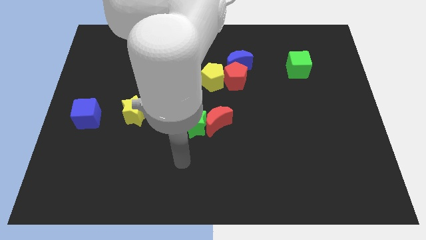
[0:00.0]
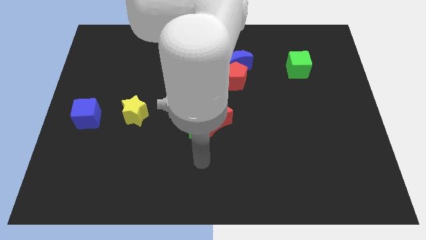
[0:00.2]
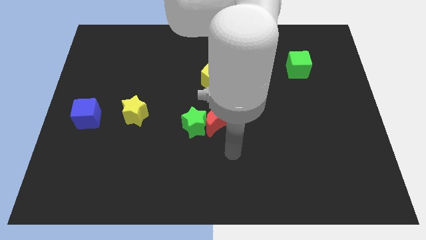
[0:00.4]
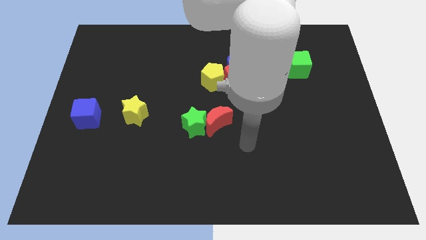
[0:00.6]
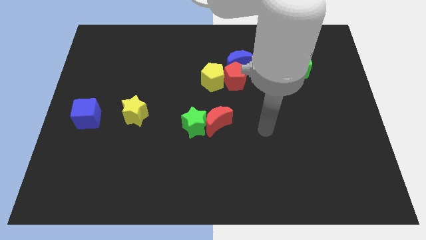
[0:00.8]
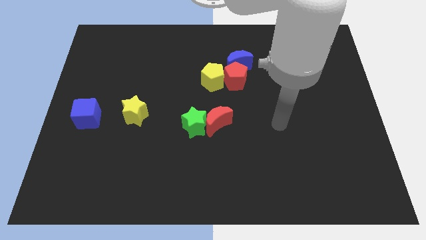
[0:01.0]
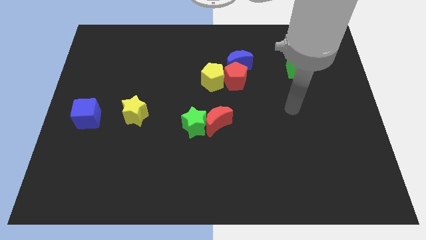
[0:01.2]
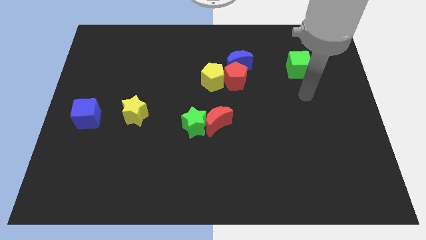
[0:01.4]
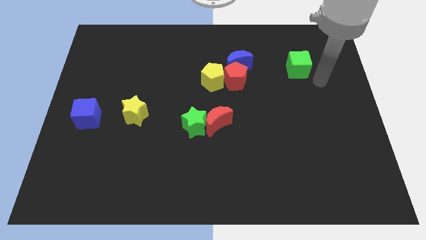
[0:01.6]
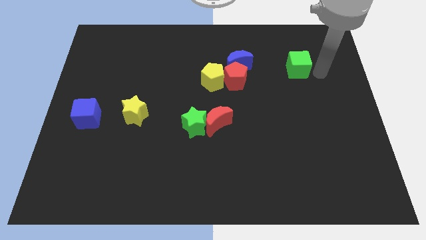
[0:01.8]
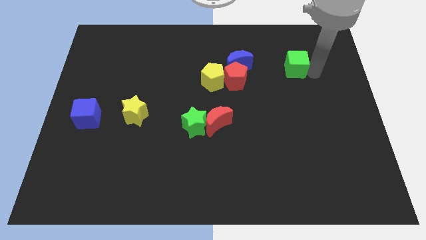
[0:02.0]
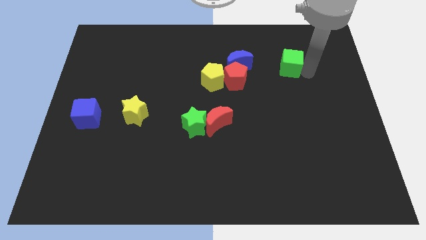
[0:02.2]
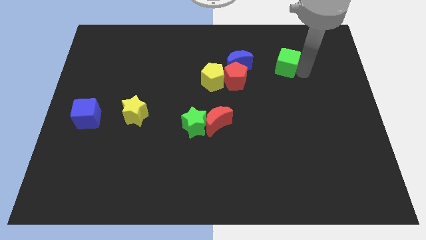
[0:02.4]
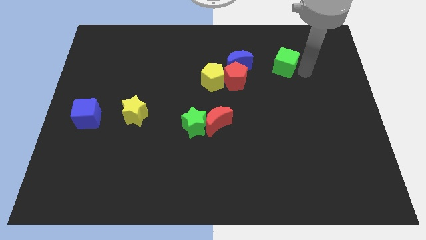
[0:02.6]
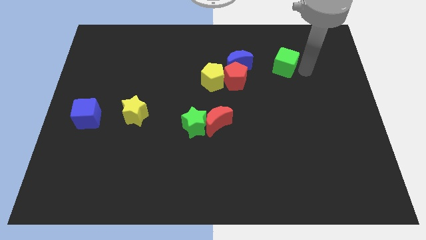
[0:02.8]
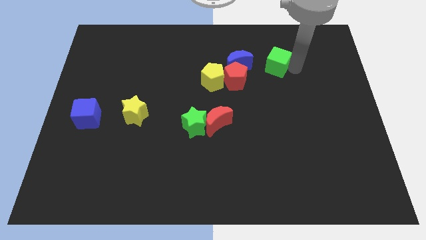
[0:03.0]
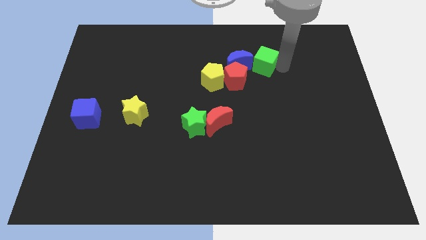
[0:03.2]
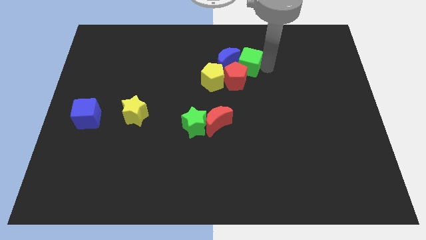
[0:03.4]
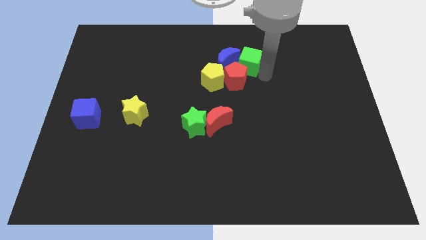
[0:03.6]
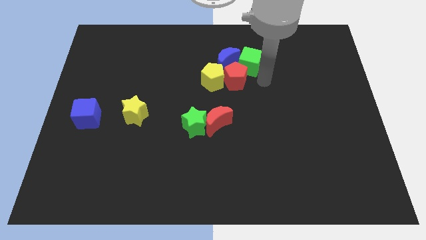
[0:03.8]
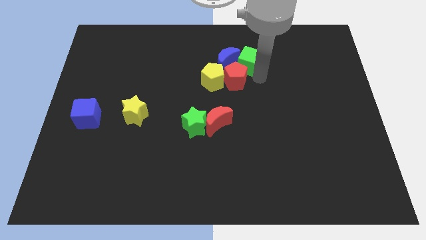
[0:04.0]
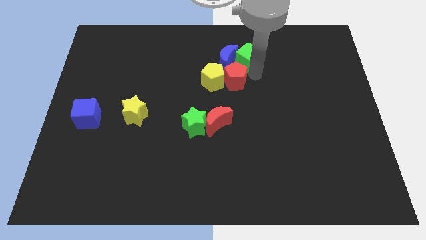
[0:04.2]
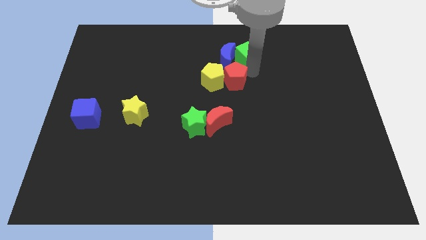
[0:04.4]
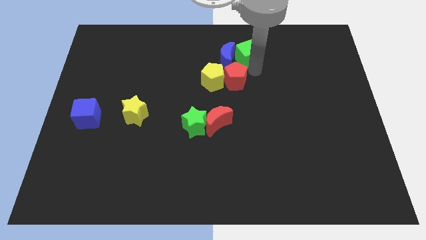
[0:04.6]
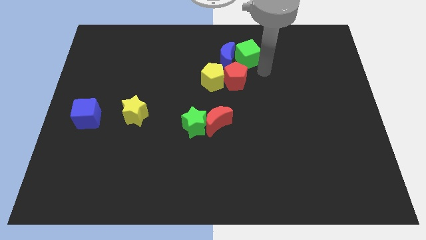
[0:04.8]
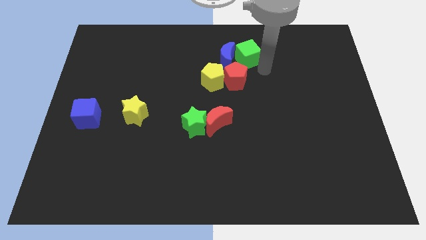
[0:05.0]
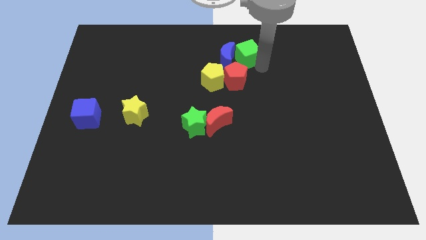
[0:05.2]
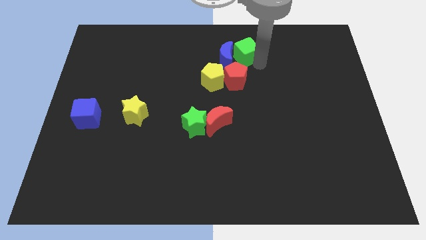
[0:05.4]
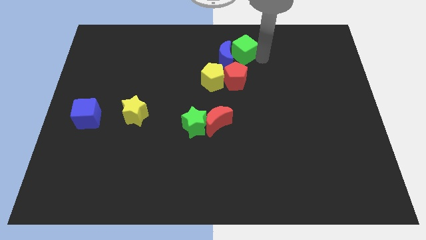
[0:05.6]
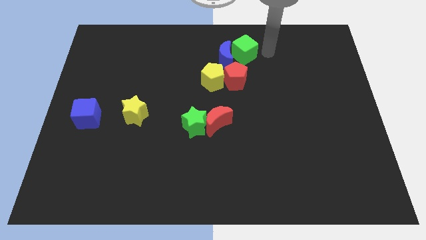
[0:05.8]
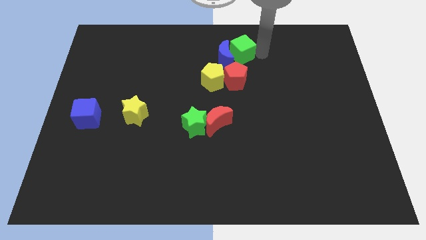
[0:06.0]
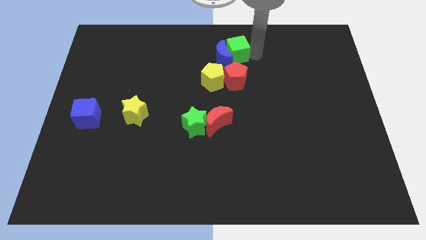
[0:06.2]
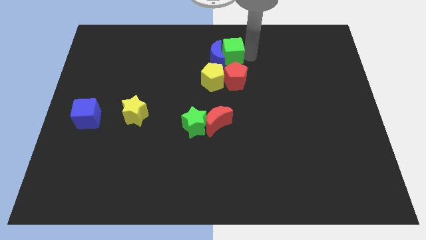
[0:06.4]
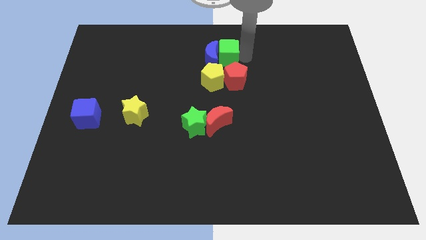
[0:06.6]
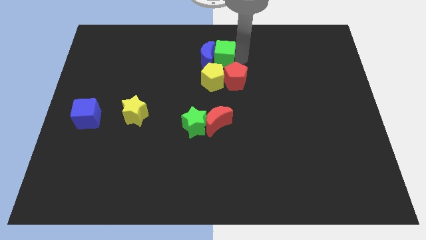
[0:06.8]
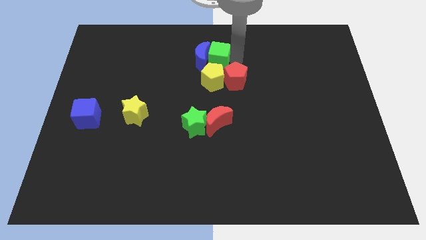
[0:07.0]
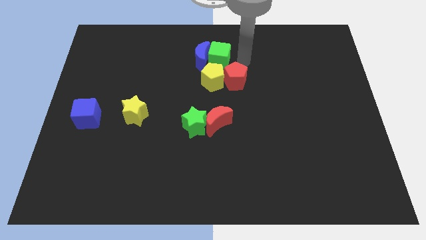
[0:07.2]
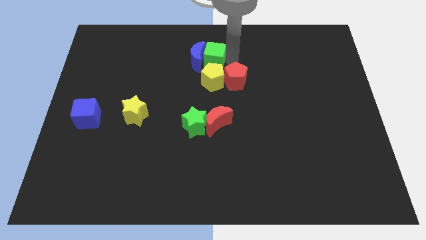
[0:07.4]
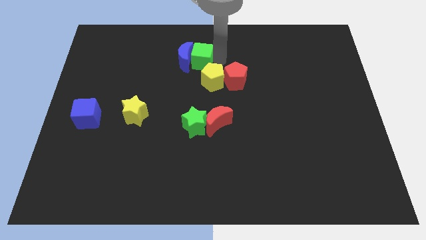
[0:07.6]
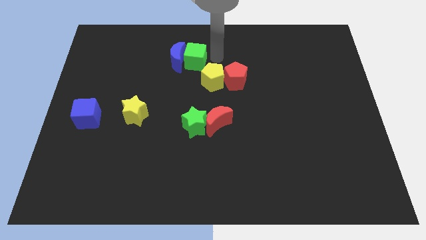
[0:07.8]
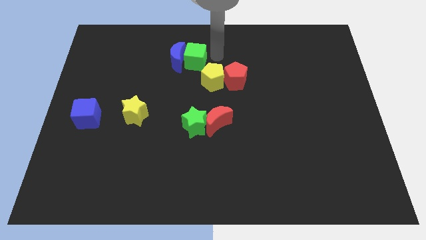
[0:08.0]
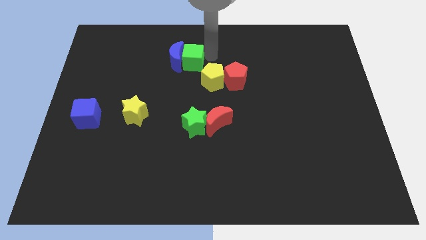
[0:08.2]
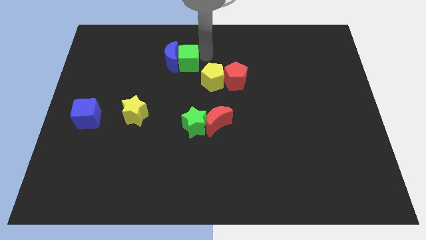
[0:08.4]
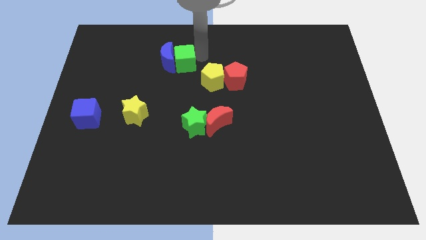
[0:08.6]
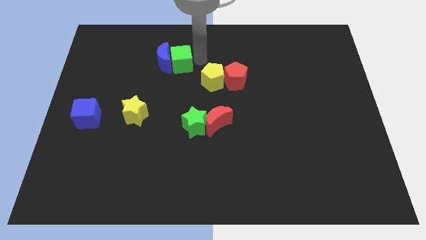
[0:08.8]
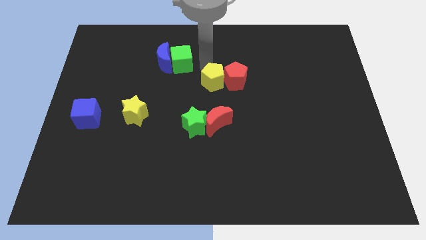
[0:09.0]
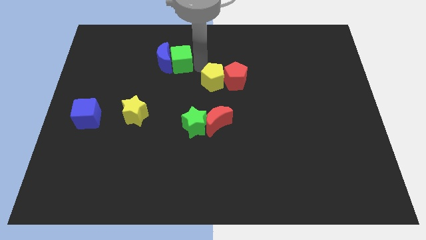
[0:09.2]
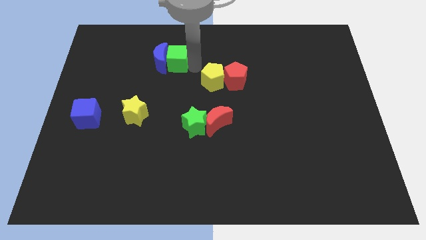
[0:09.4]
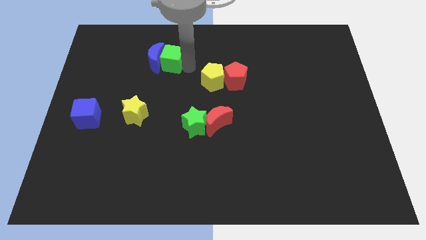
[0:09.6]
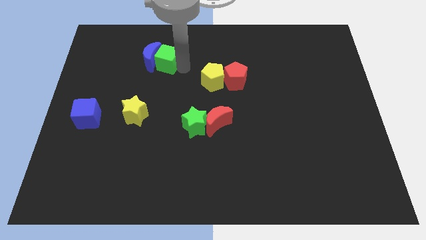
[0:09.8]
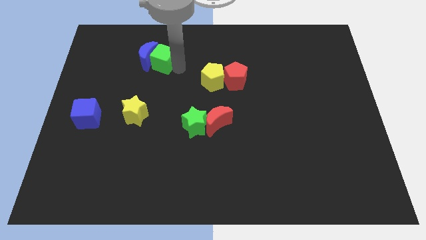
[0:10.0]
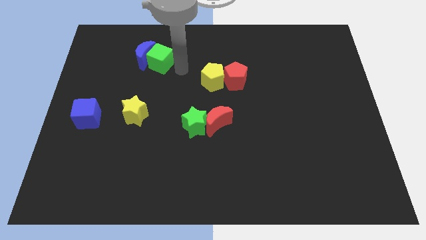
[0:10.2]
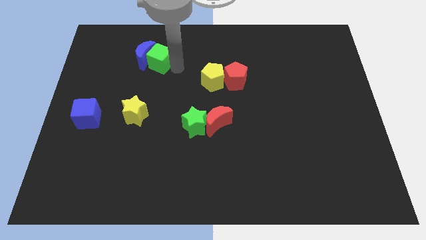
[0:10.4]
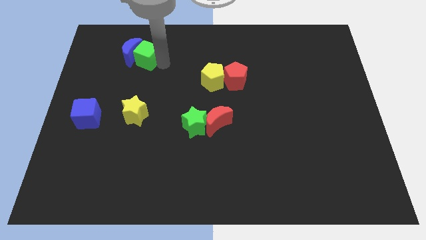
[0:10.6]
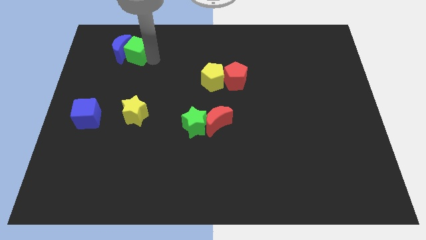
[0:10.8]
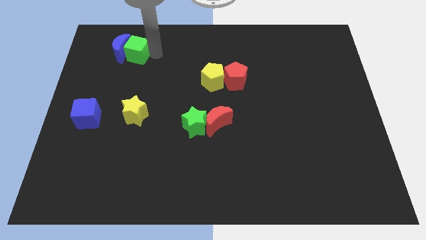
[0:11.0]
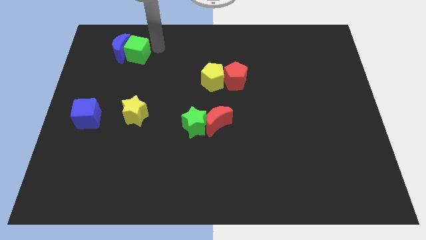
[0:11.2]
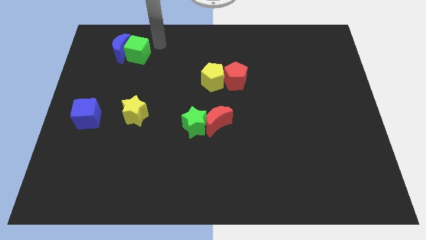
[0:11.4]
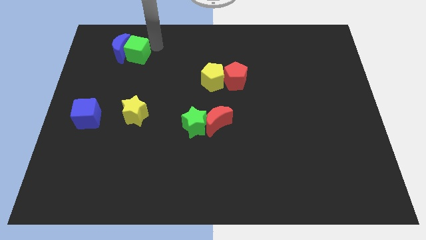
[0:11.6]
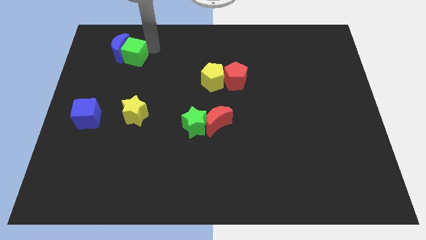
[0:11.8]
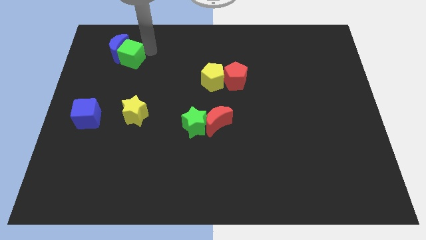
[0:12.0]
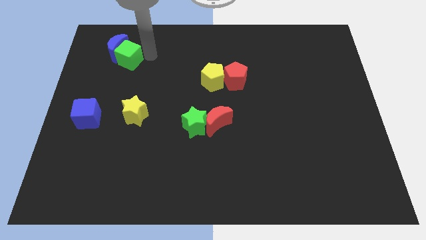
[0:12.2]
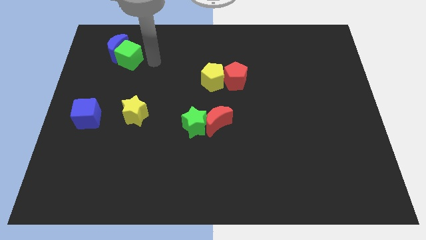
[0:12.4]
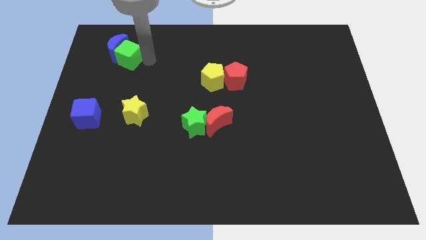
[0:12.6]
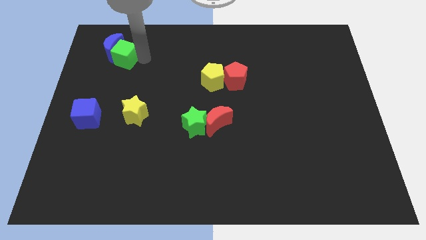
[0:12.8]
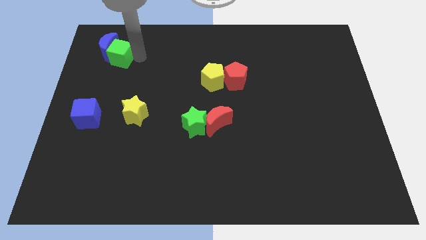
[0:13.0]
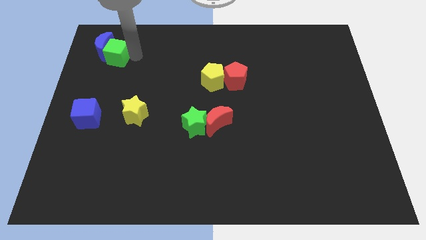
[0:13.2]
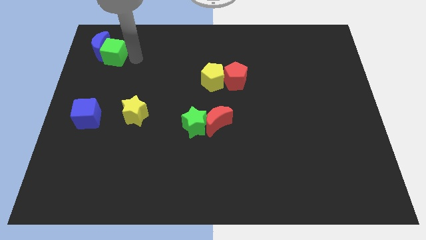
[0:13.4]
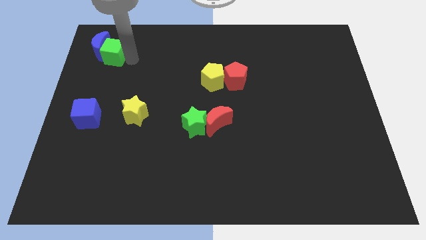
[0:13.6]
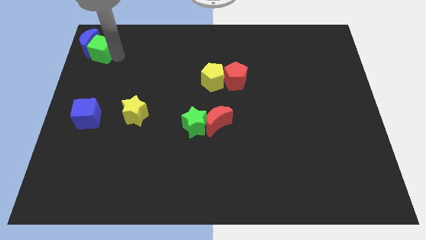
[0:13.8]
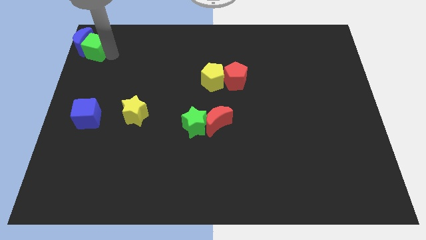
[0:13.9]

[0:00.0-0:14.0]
put the green cube to the top left of the board

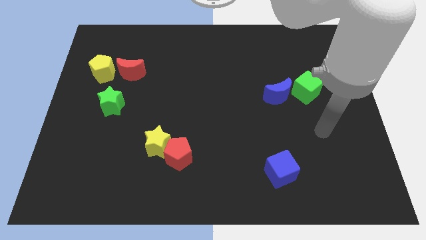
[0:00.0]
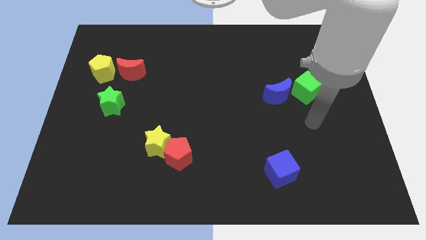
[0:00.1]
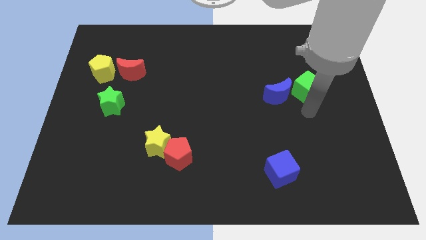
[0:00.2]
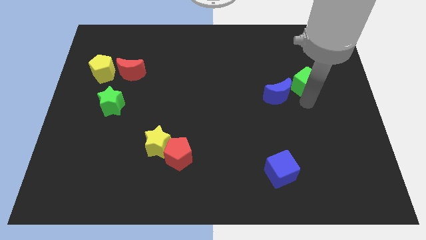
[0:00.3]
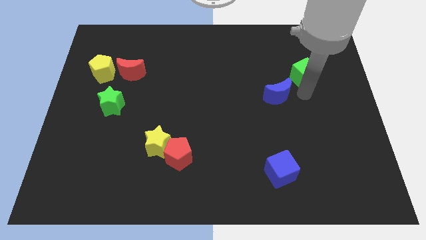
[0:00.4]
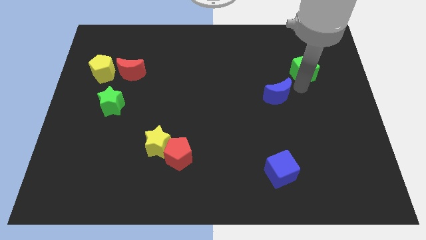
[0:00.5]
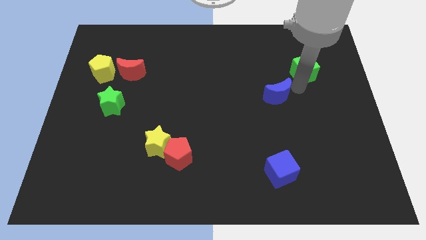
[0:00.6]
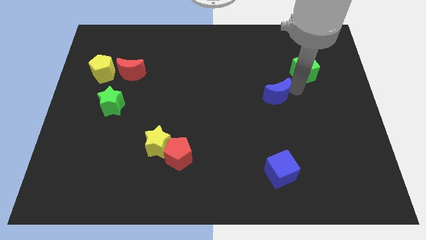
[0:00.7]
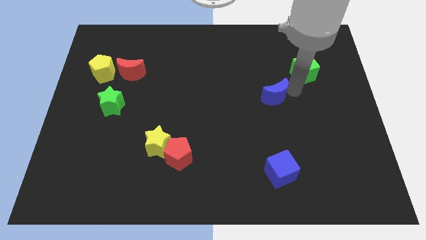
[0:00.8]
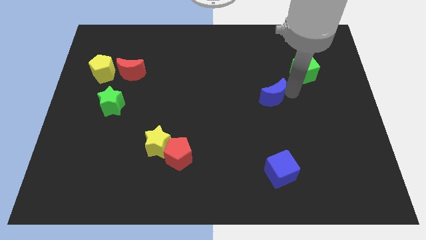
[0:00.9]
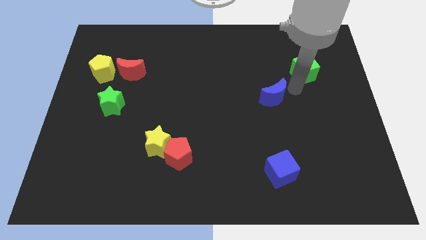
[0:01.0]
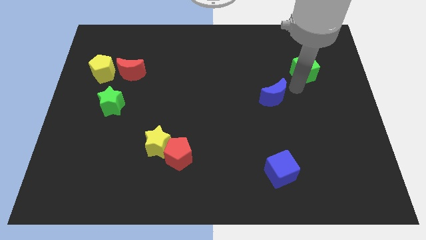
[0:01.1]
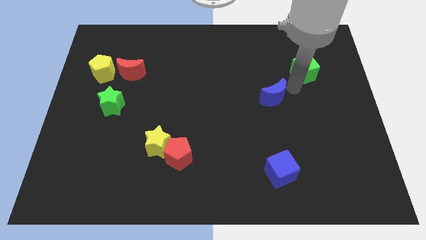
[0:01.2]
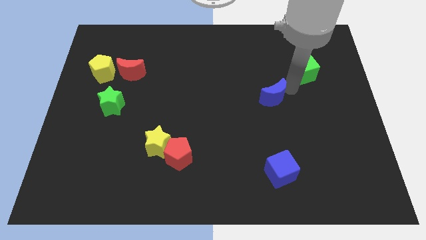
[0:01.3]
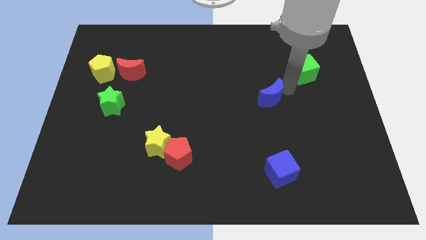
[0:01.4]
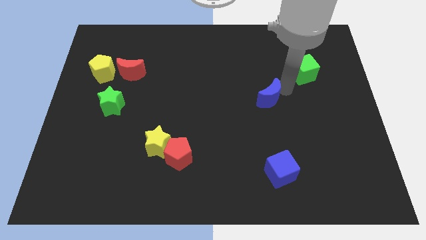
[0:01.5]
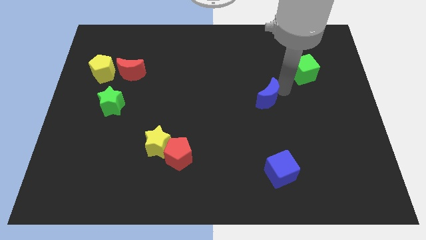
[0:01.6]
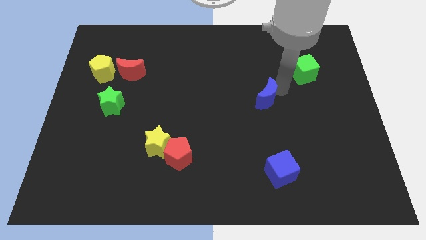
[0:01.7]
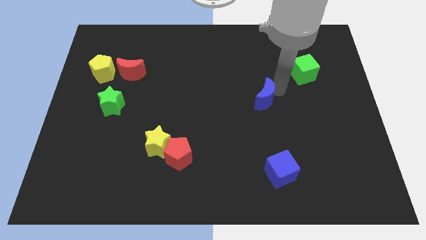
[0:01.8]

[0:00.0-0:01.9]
put the blue moon to the center of the board
